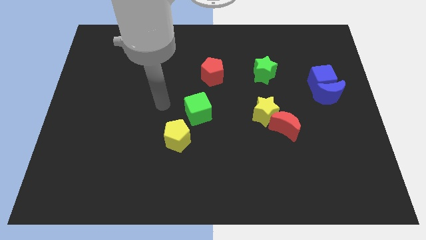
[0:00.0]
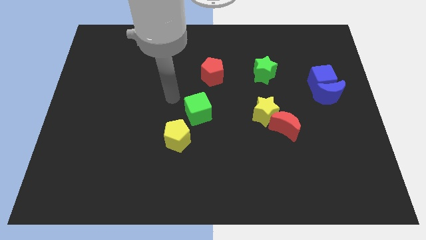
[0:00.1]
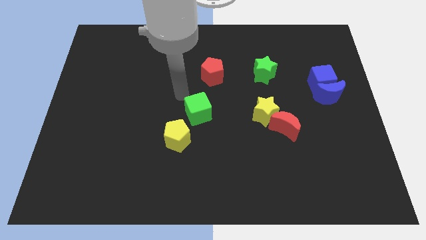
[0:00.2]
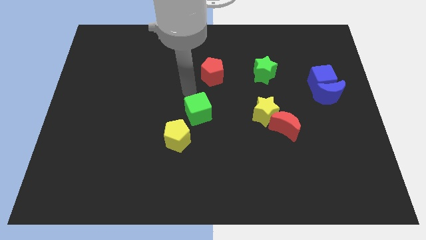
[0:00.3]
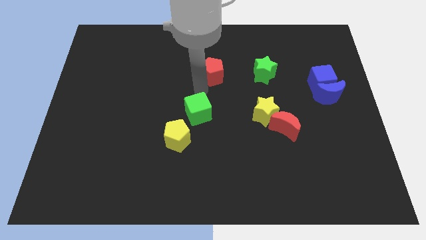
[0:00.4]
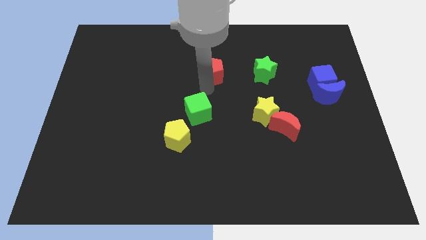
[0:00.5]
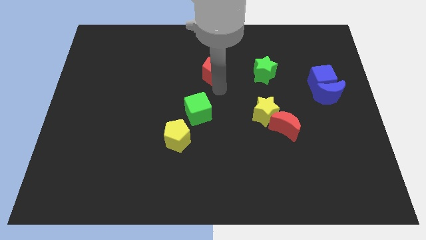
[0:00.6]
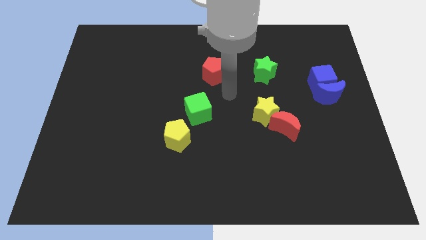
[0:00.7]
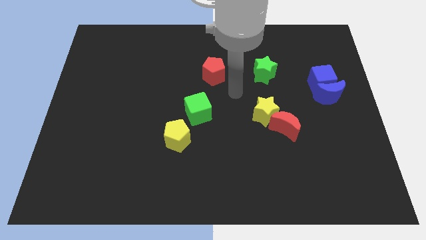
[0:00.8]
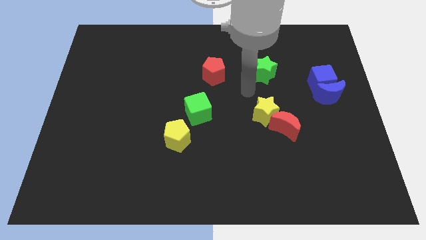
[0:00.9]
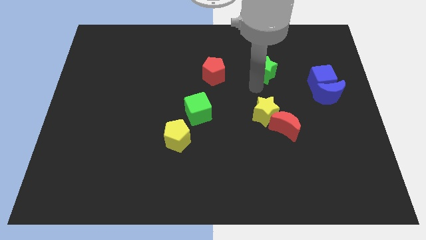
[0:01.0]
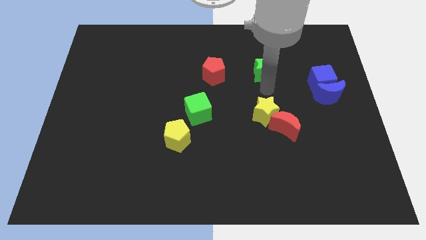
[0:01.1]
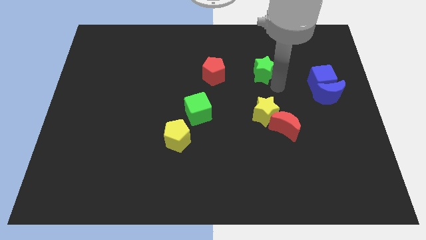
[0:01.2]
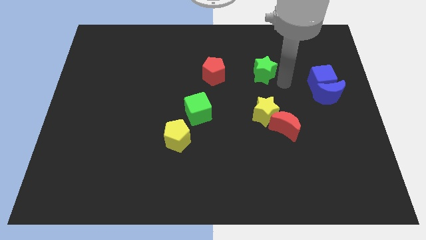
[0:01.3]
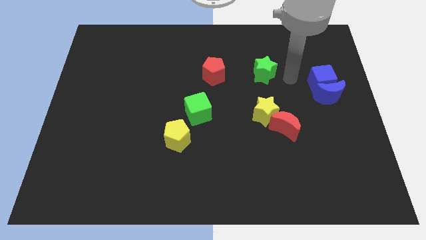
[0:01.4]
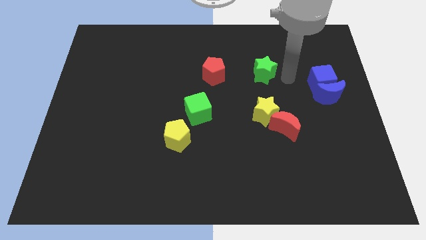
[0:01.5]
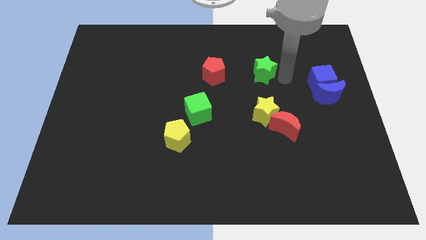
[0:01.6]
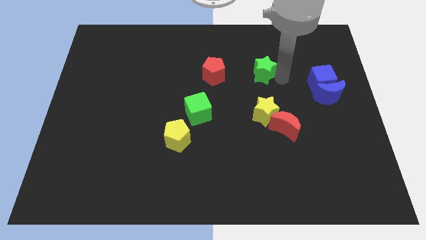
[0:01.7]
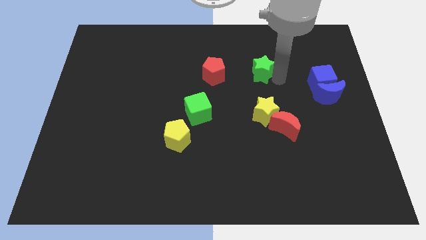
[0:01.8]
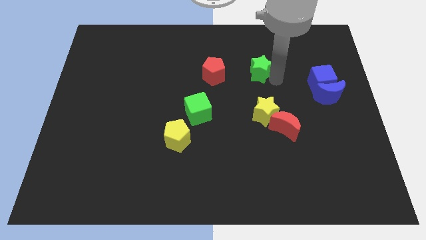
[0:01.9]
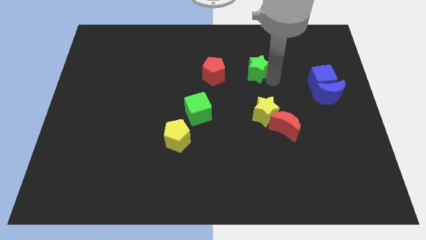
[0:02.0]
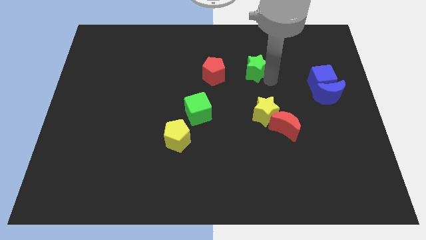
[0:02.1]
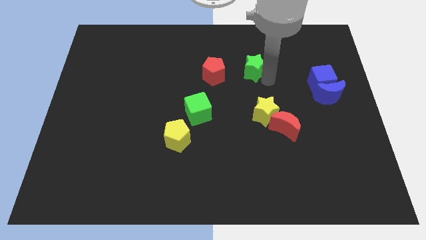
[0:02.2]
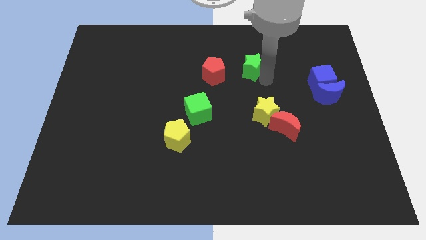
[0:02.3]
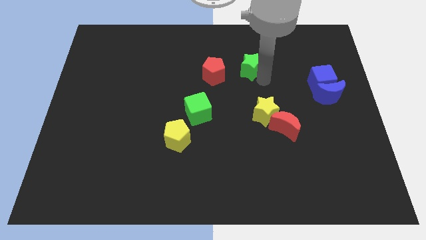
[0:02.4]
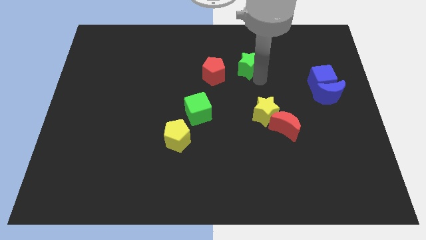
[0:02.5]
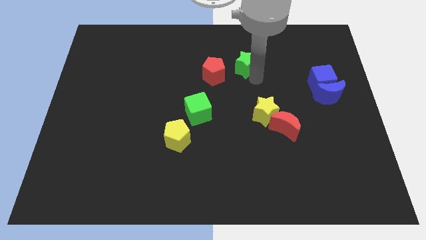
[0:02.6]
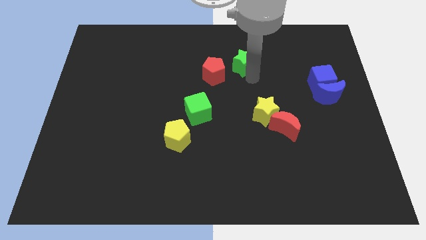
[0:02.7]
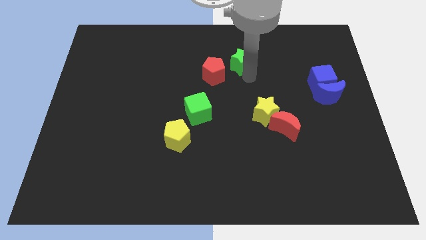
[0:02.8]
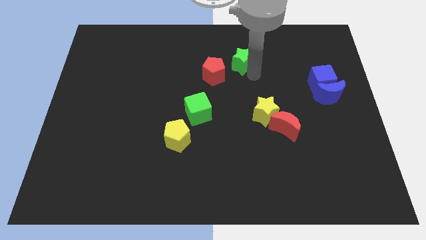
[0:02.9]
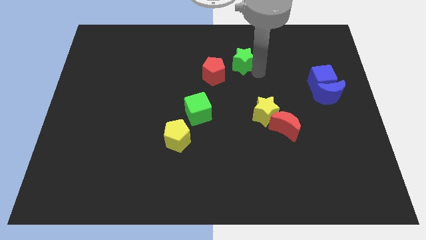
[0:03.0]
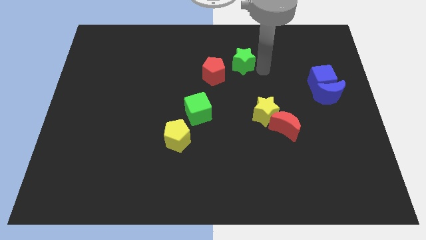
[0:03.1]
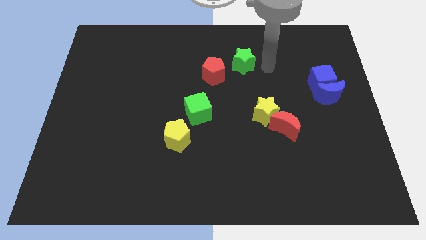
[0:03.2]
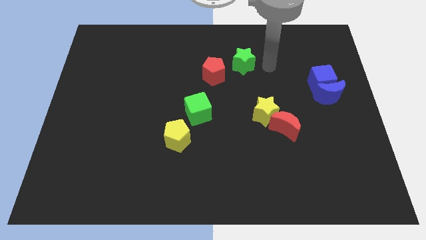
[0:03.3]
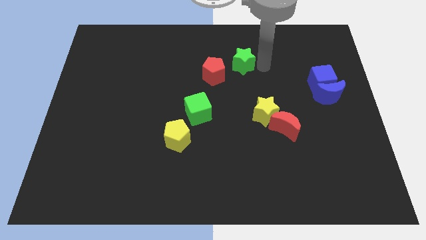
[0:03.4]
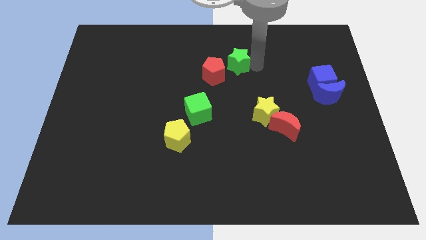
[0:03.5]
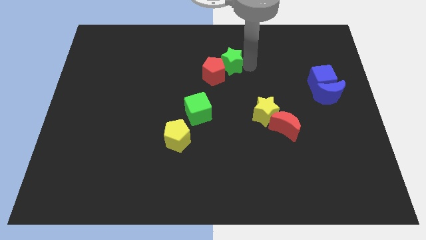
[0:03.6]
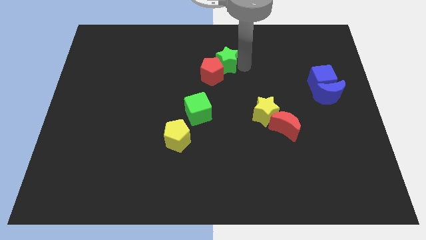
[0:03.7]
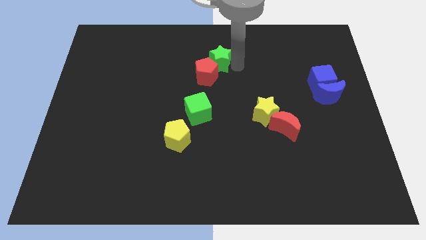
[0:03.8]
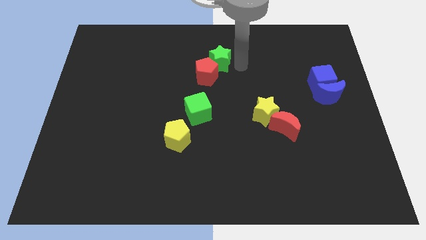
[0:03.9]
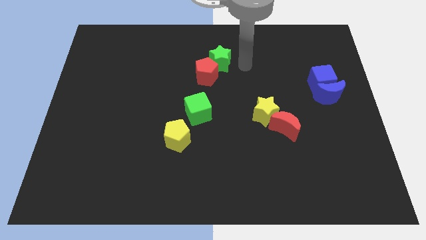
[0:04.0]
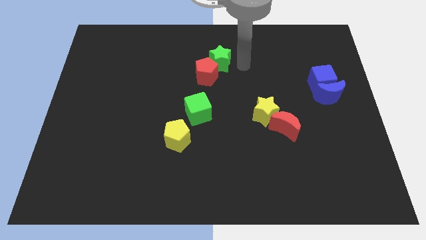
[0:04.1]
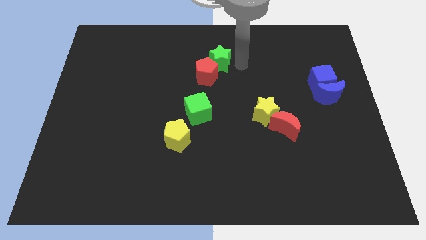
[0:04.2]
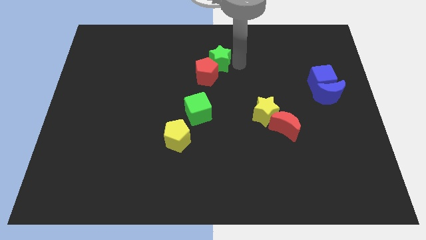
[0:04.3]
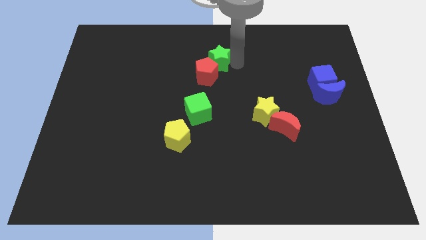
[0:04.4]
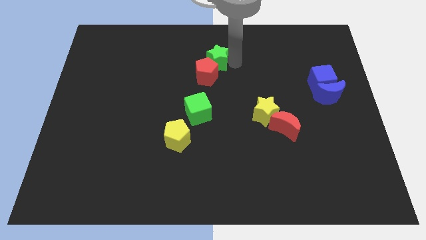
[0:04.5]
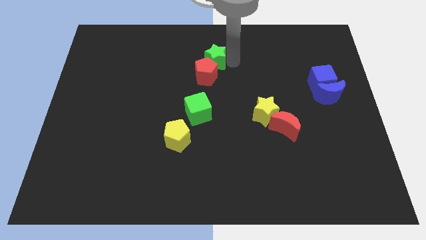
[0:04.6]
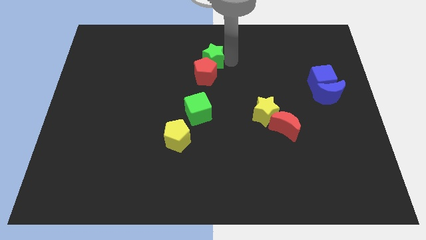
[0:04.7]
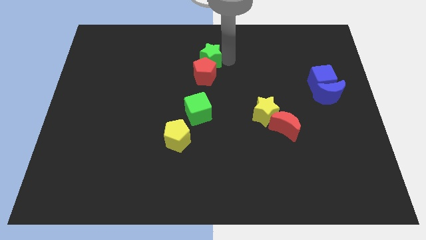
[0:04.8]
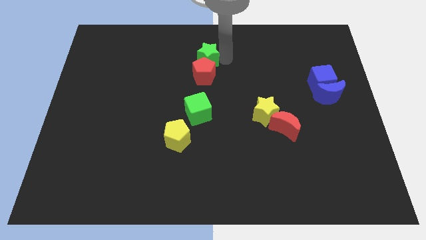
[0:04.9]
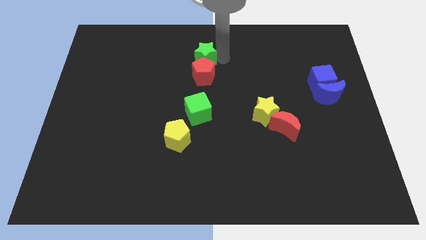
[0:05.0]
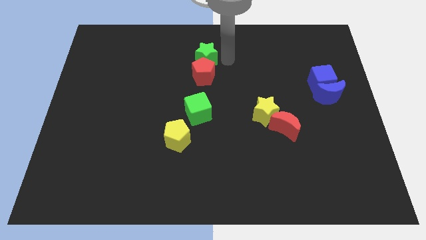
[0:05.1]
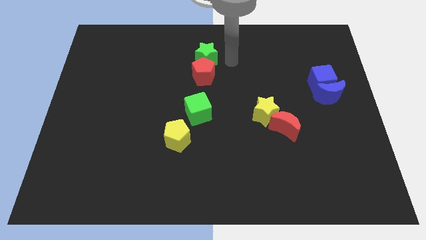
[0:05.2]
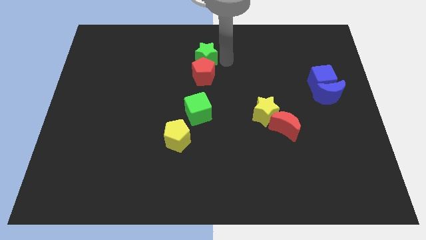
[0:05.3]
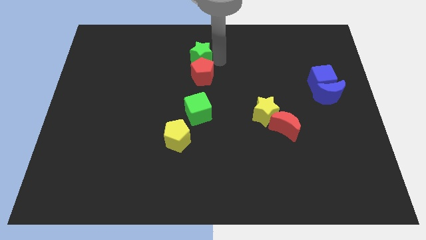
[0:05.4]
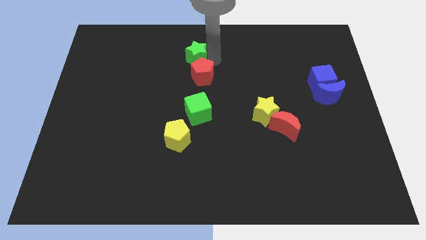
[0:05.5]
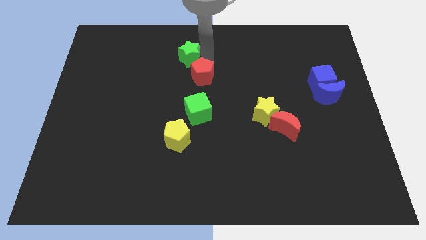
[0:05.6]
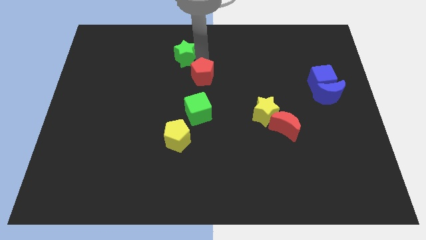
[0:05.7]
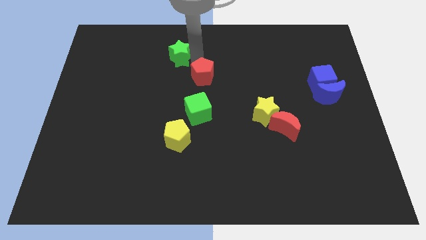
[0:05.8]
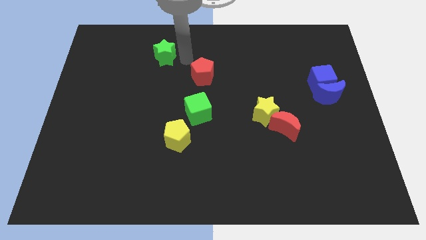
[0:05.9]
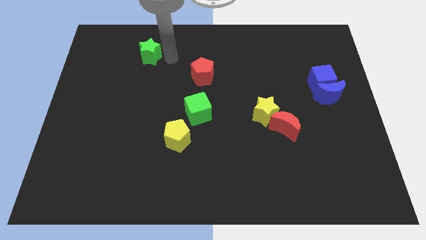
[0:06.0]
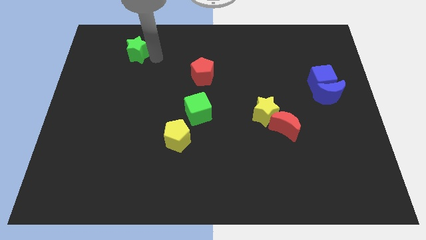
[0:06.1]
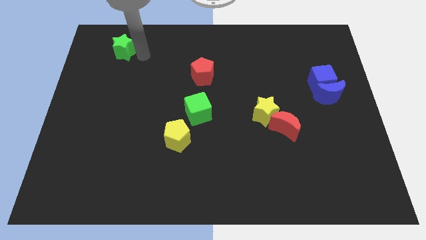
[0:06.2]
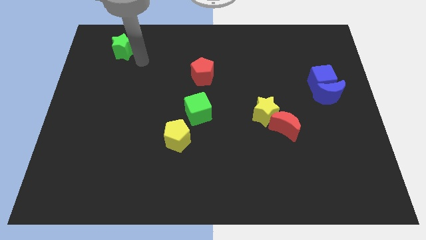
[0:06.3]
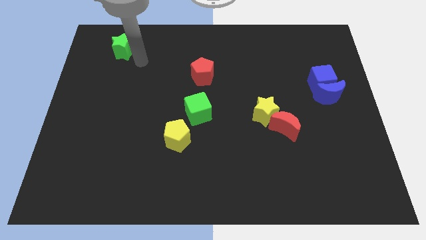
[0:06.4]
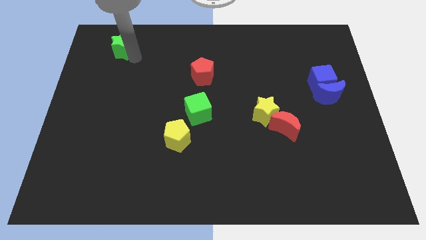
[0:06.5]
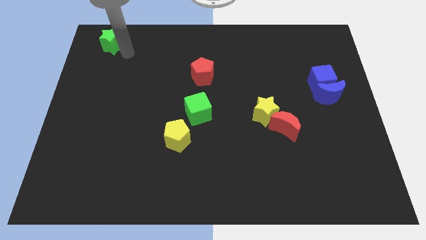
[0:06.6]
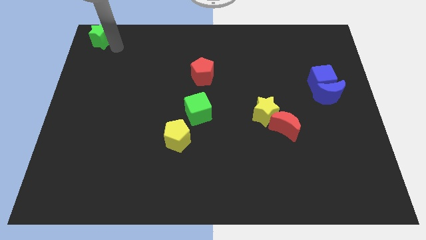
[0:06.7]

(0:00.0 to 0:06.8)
put the green star to the top left corner
